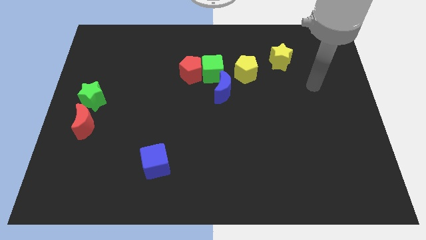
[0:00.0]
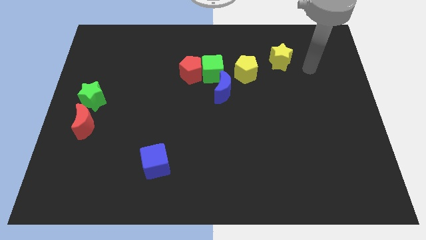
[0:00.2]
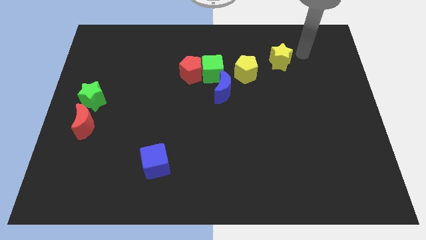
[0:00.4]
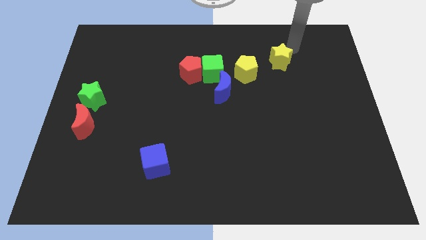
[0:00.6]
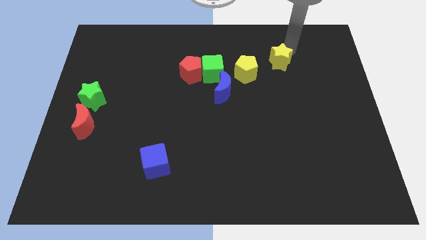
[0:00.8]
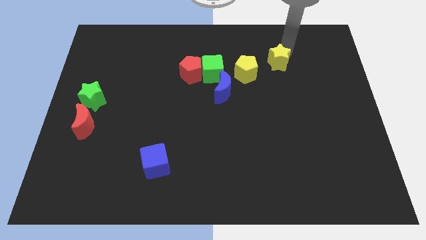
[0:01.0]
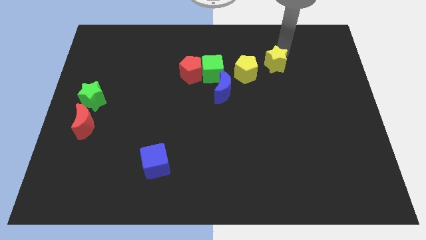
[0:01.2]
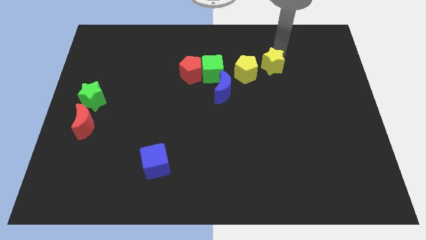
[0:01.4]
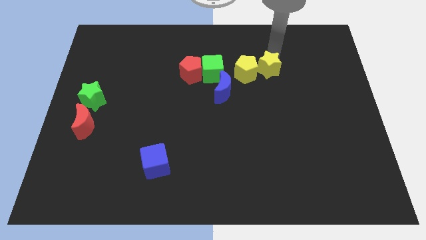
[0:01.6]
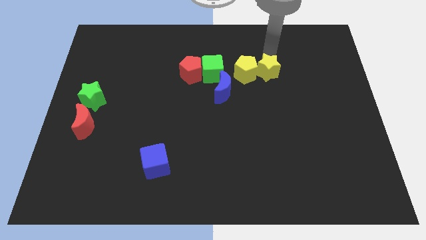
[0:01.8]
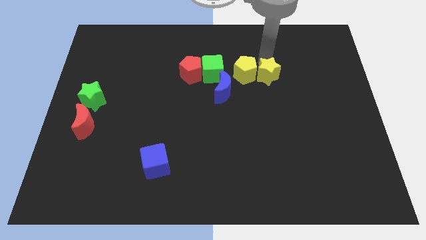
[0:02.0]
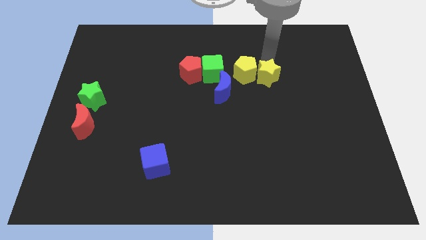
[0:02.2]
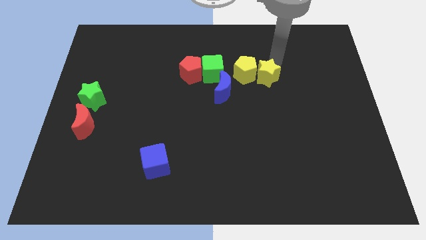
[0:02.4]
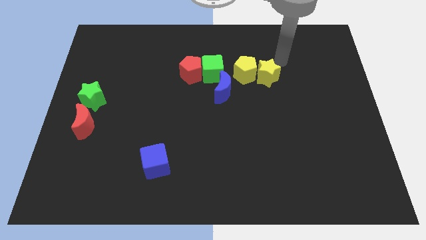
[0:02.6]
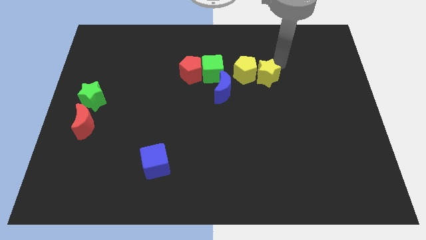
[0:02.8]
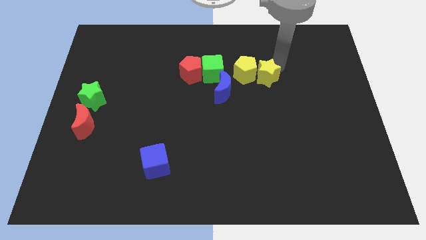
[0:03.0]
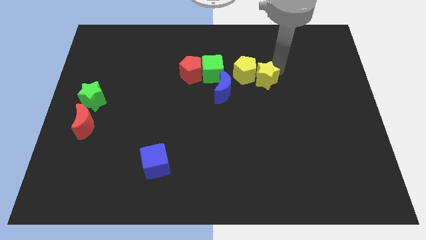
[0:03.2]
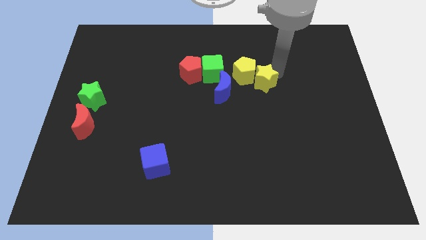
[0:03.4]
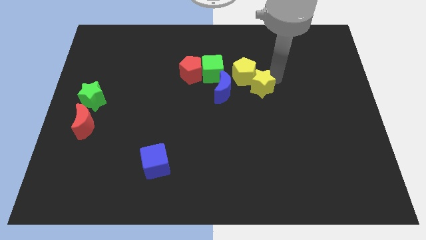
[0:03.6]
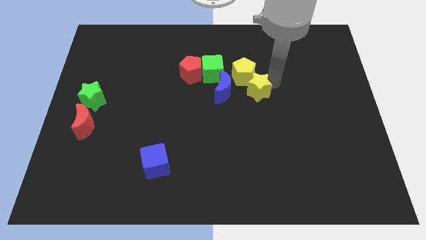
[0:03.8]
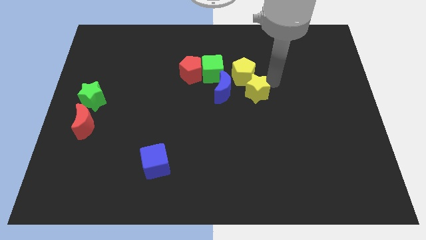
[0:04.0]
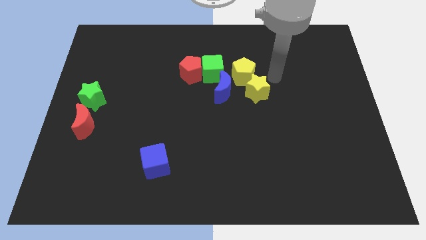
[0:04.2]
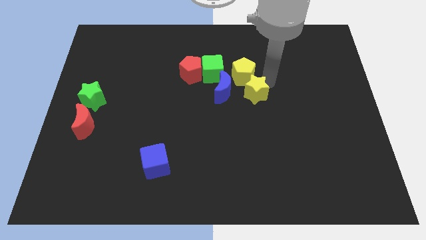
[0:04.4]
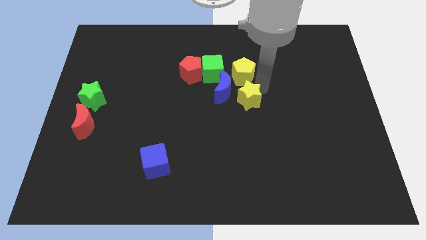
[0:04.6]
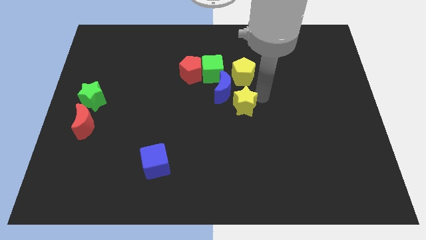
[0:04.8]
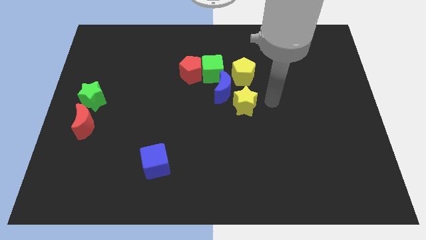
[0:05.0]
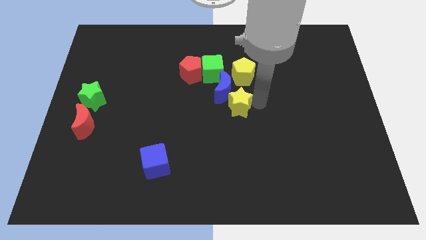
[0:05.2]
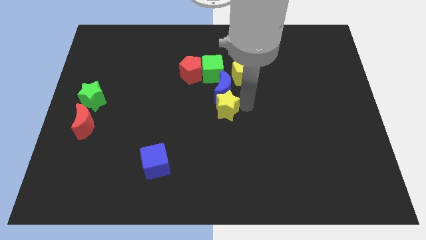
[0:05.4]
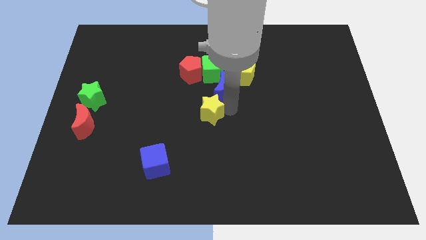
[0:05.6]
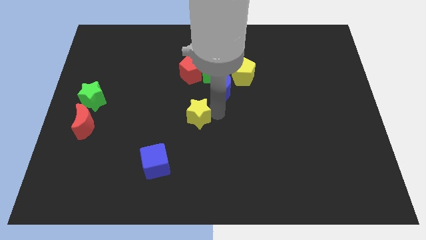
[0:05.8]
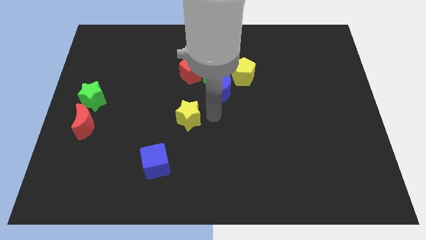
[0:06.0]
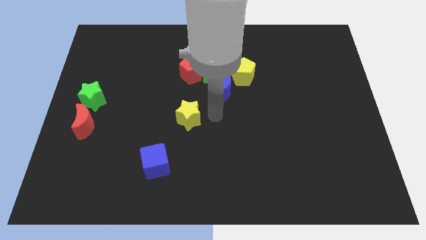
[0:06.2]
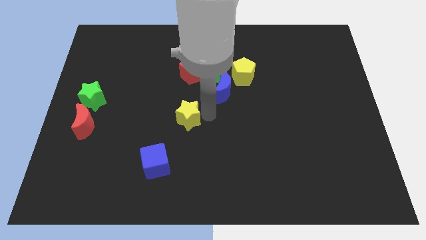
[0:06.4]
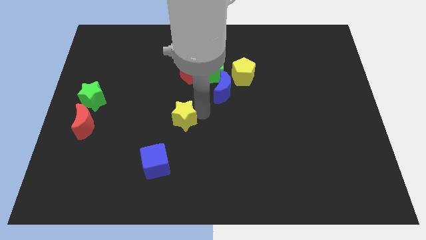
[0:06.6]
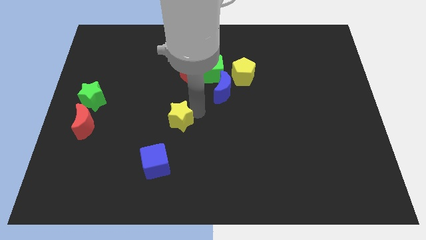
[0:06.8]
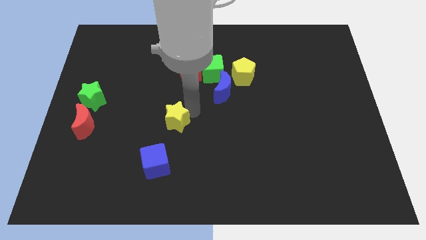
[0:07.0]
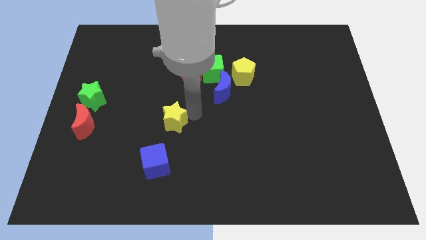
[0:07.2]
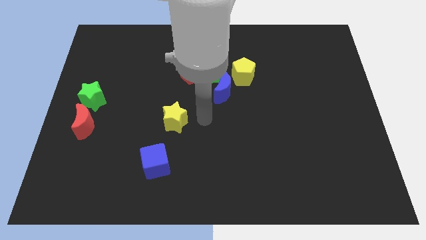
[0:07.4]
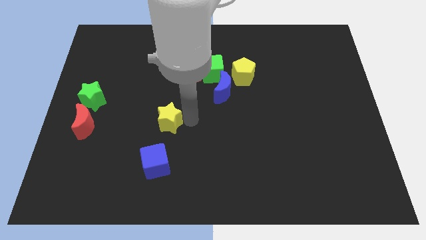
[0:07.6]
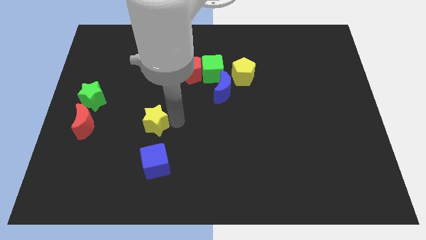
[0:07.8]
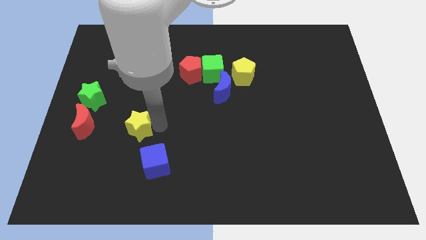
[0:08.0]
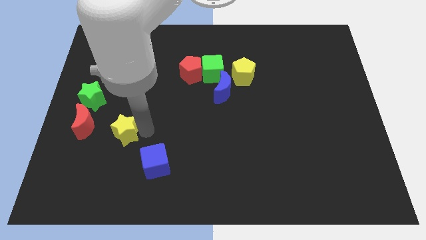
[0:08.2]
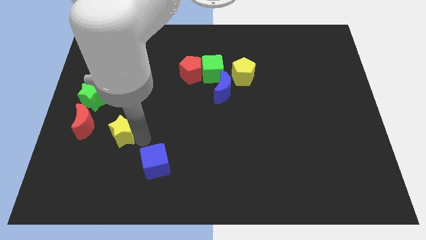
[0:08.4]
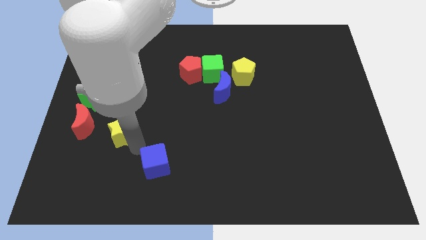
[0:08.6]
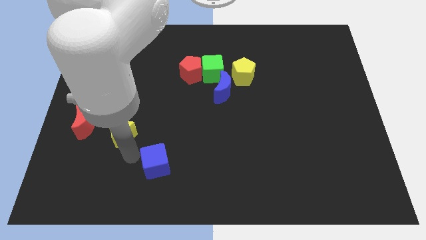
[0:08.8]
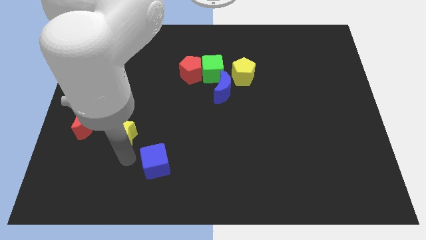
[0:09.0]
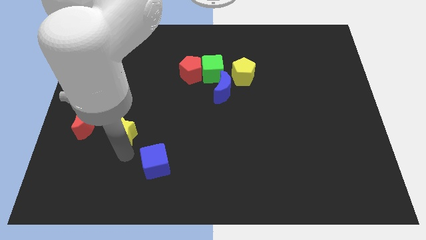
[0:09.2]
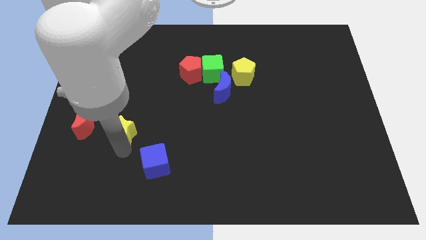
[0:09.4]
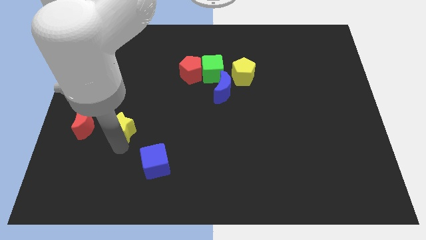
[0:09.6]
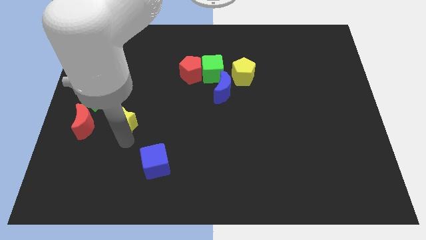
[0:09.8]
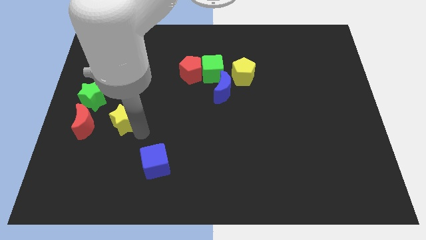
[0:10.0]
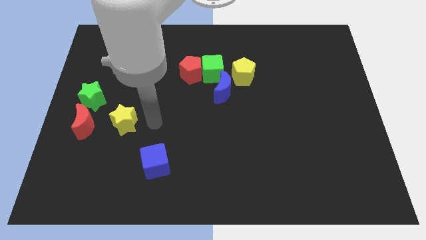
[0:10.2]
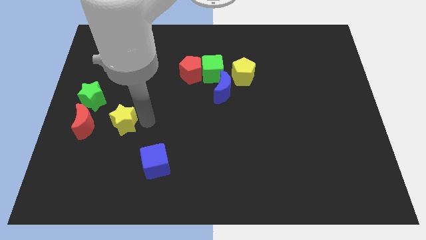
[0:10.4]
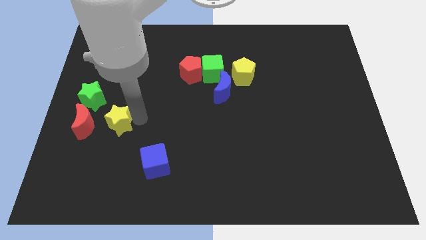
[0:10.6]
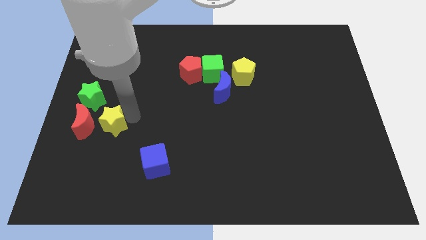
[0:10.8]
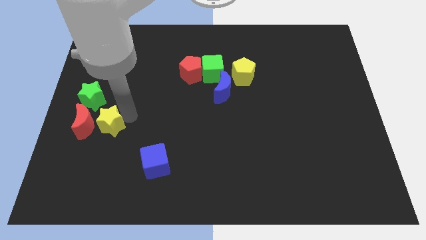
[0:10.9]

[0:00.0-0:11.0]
push the yellow star to the red moon
